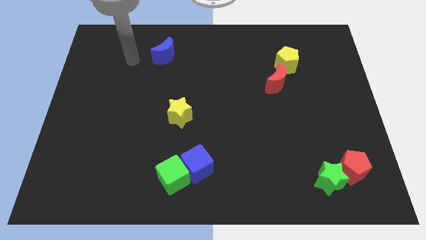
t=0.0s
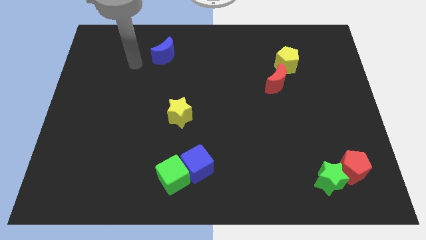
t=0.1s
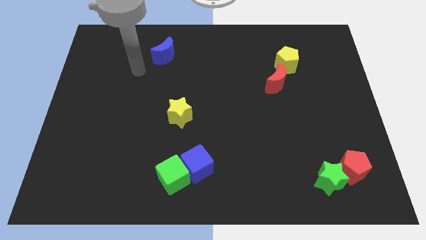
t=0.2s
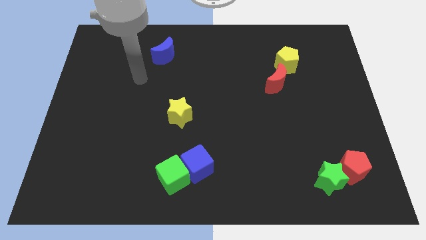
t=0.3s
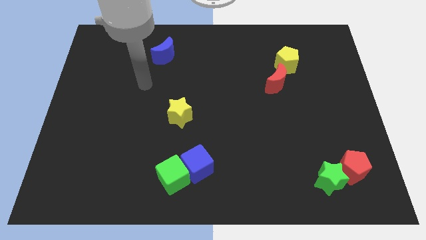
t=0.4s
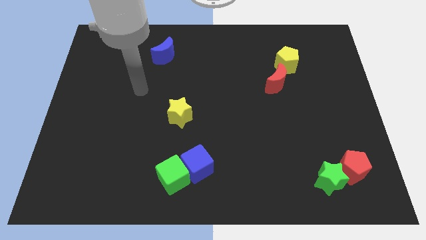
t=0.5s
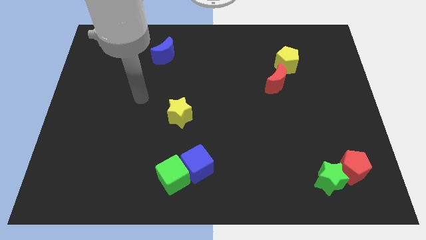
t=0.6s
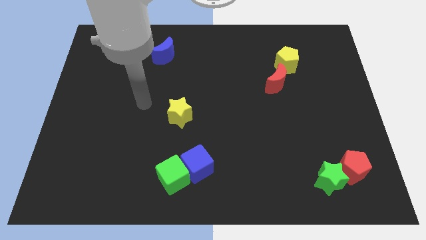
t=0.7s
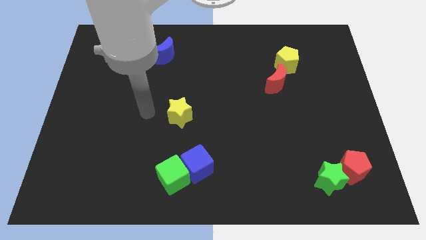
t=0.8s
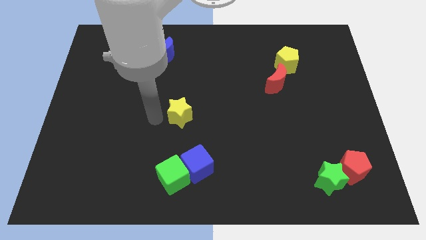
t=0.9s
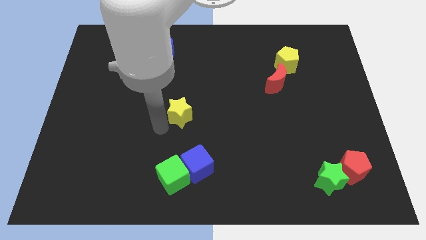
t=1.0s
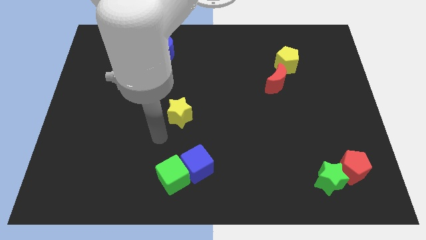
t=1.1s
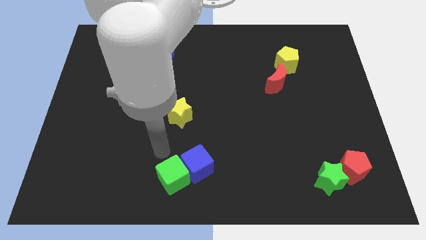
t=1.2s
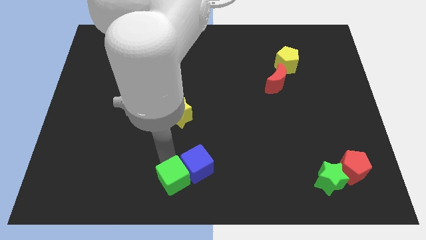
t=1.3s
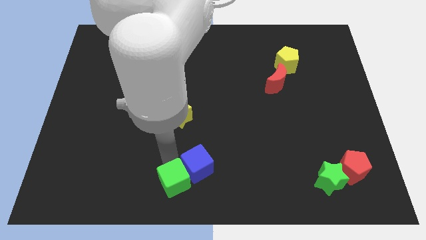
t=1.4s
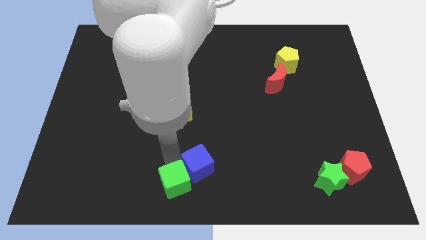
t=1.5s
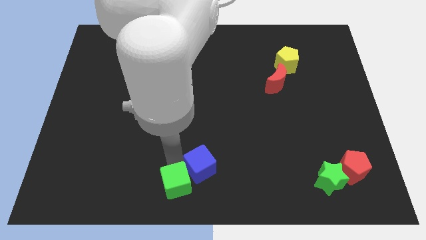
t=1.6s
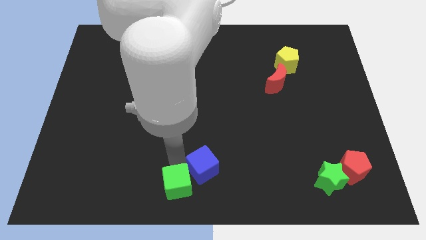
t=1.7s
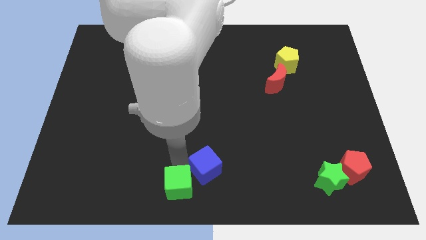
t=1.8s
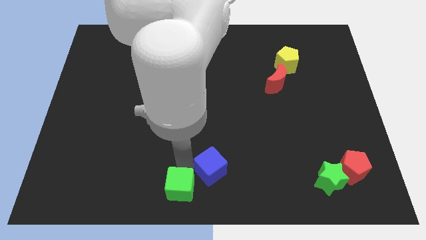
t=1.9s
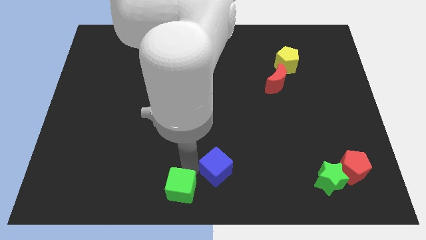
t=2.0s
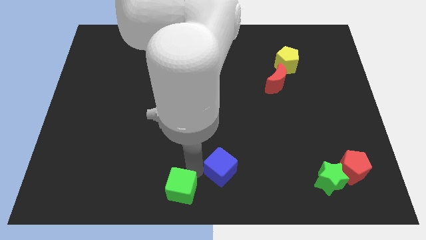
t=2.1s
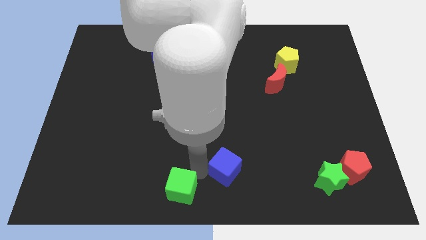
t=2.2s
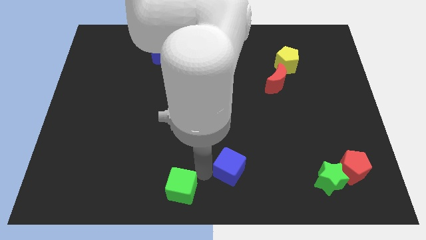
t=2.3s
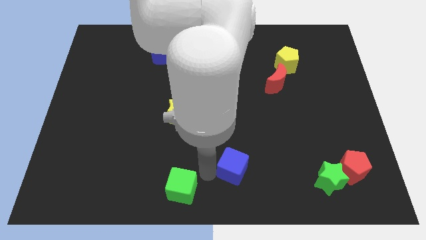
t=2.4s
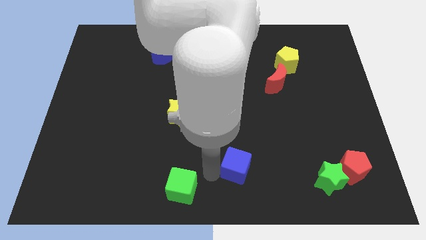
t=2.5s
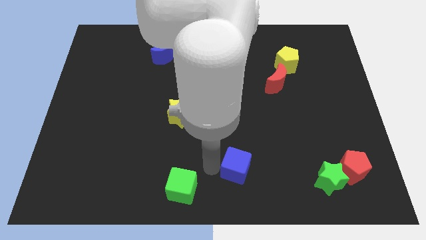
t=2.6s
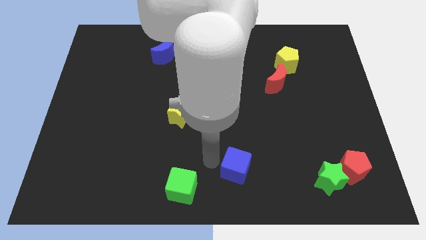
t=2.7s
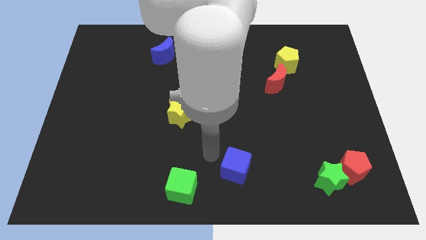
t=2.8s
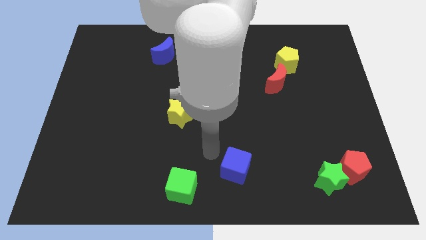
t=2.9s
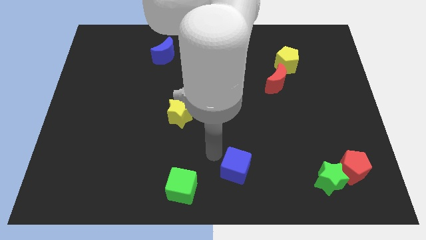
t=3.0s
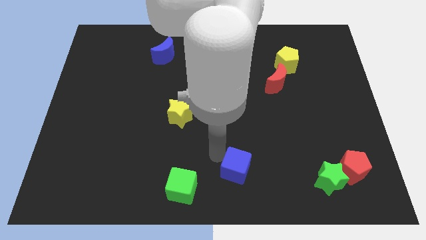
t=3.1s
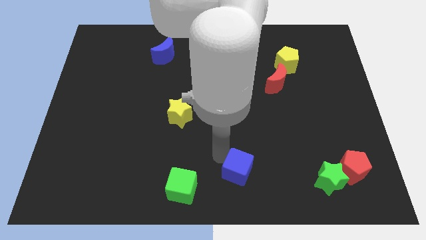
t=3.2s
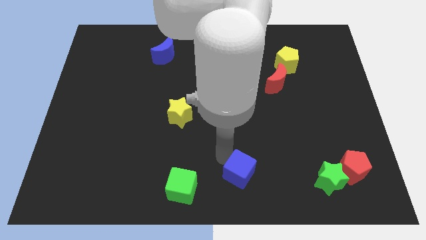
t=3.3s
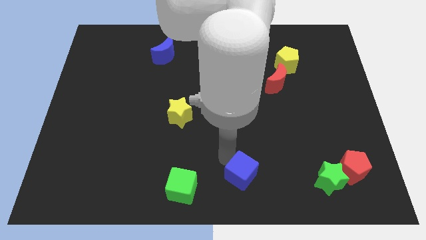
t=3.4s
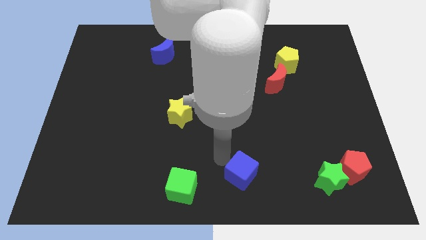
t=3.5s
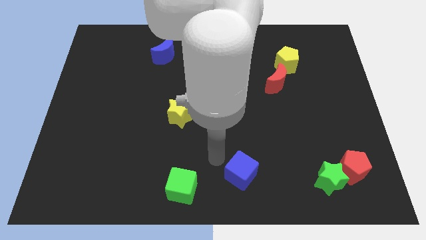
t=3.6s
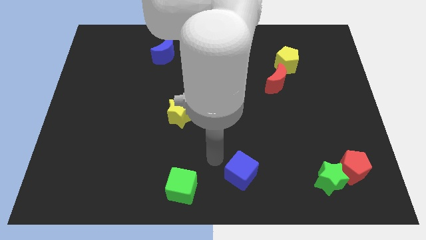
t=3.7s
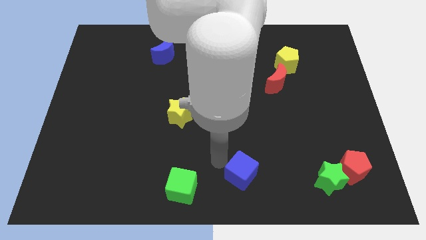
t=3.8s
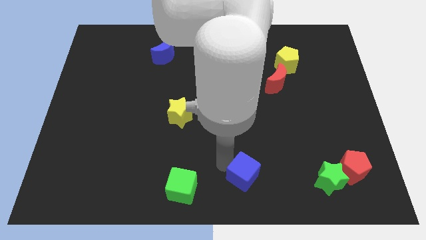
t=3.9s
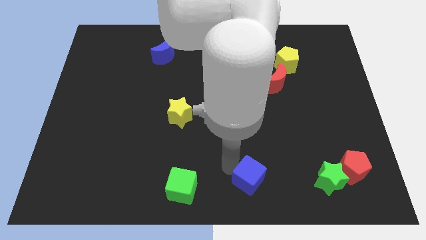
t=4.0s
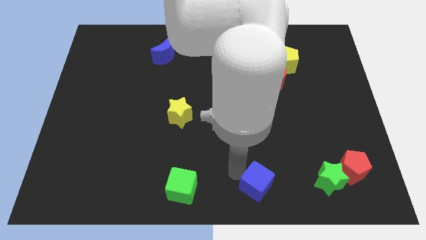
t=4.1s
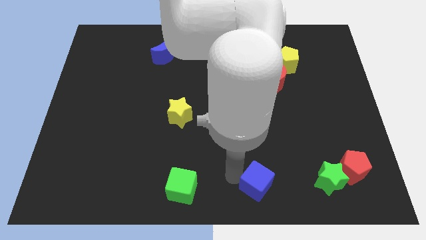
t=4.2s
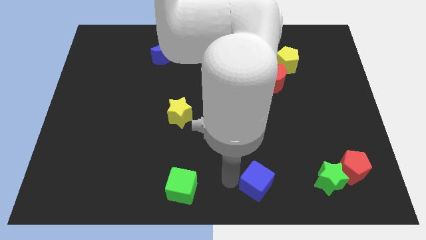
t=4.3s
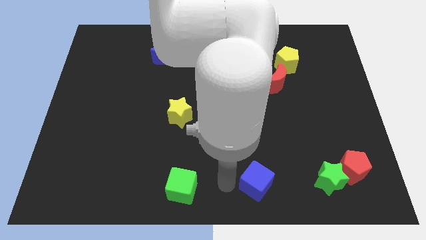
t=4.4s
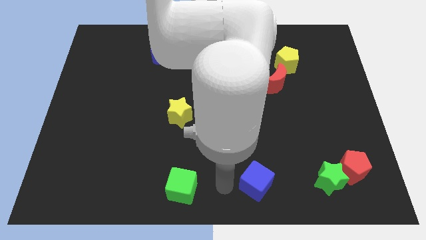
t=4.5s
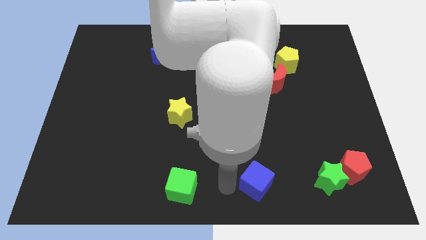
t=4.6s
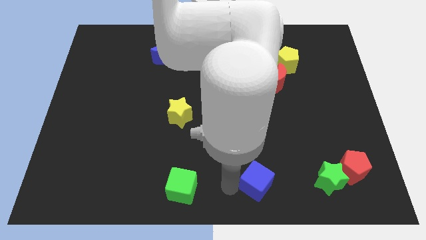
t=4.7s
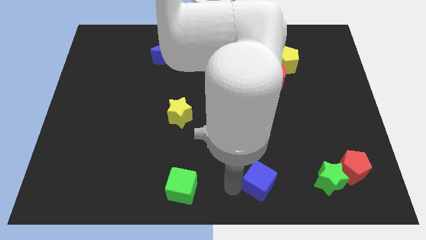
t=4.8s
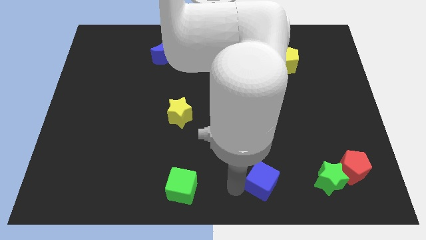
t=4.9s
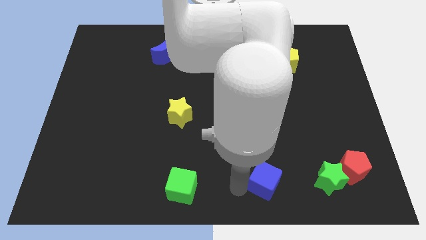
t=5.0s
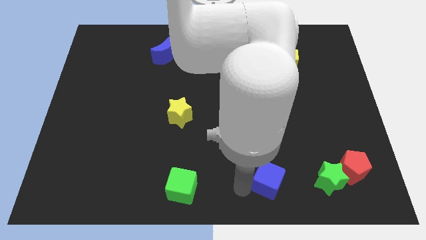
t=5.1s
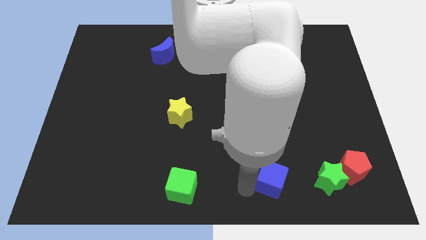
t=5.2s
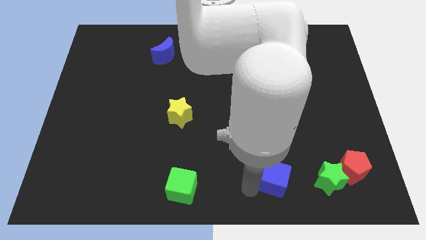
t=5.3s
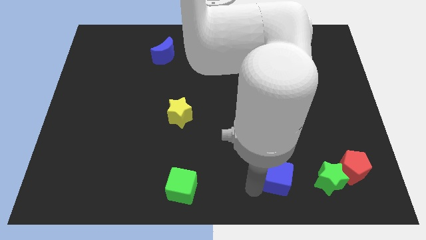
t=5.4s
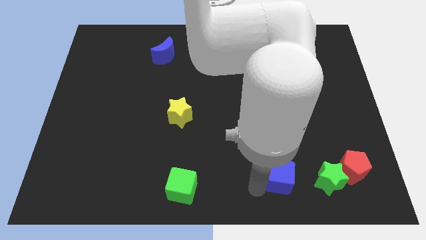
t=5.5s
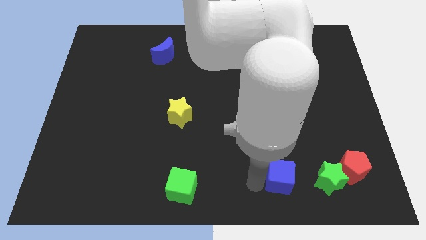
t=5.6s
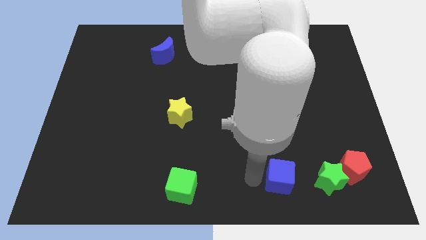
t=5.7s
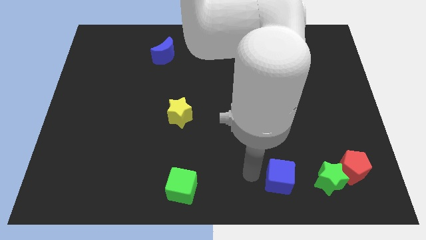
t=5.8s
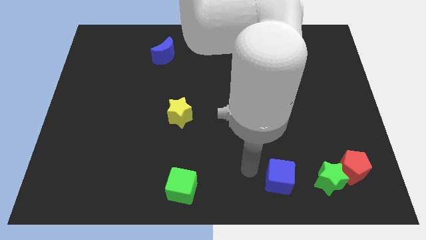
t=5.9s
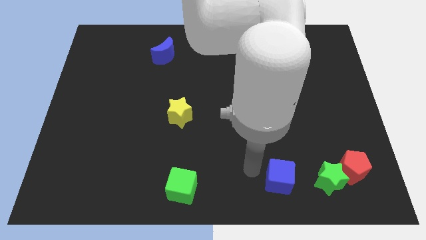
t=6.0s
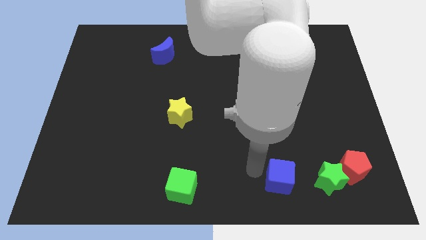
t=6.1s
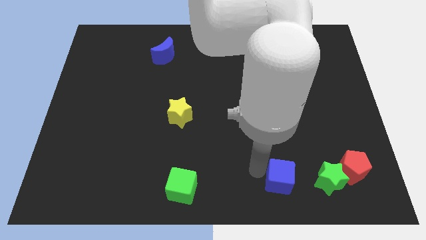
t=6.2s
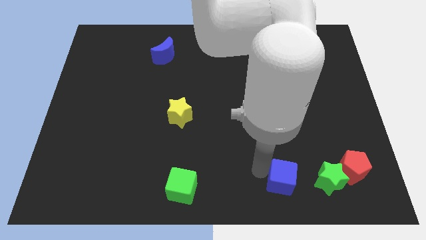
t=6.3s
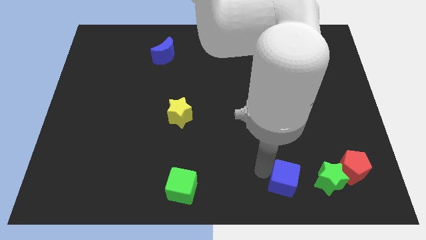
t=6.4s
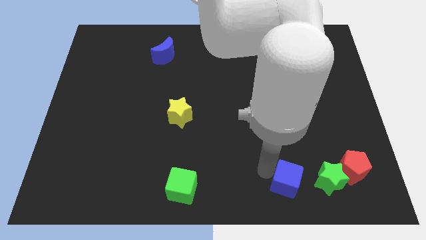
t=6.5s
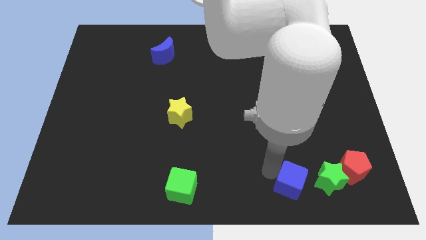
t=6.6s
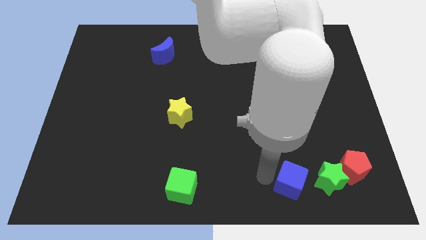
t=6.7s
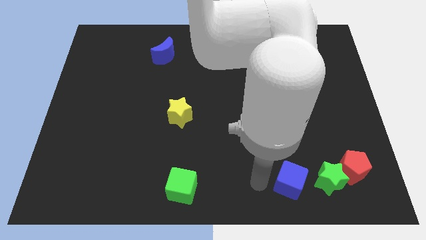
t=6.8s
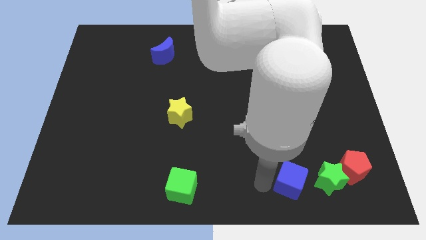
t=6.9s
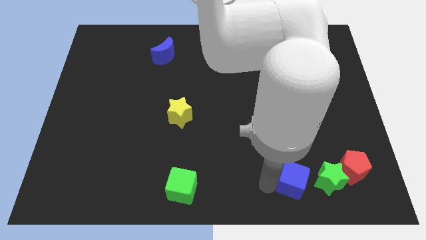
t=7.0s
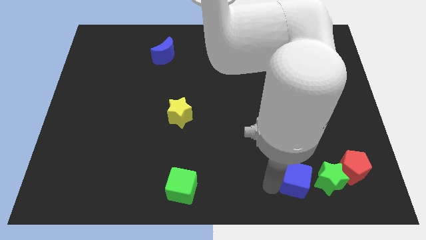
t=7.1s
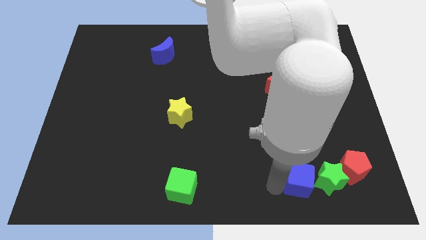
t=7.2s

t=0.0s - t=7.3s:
move the blue cube to the green star
